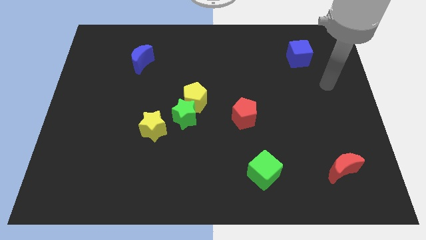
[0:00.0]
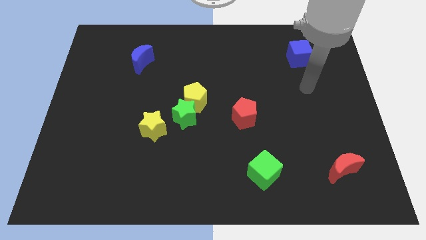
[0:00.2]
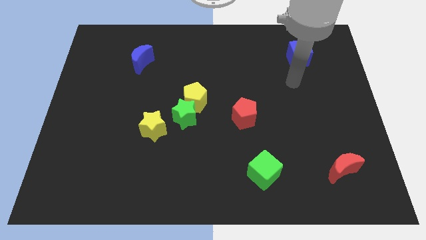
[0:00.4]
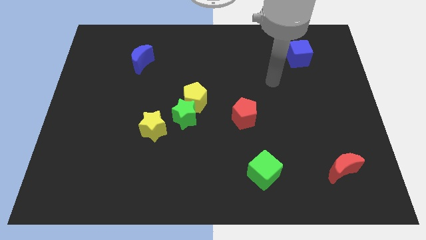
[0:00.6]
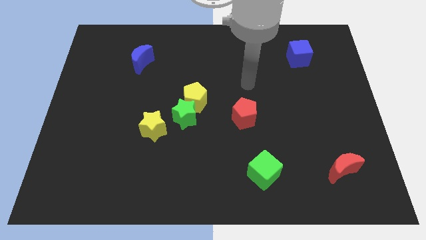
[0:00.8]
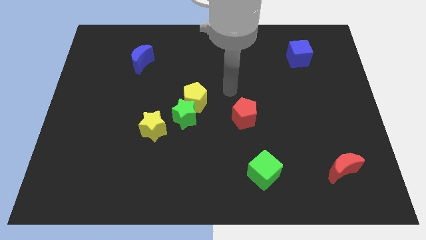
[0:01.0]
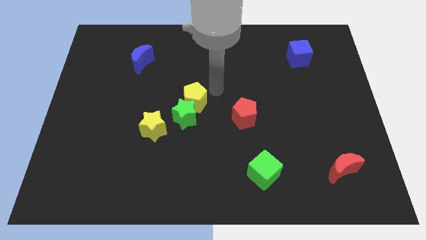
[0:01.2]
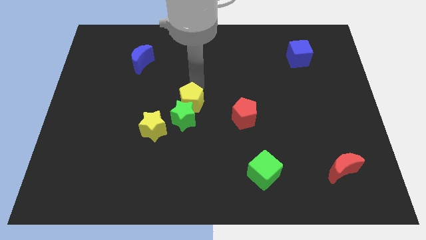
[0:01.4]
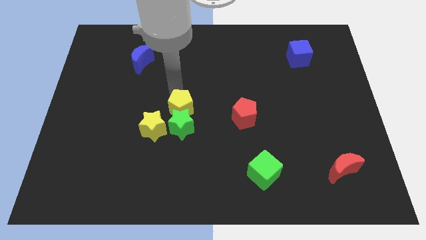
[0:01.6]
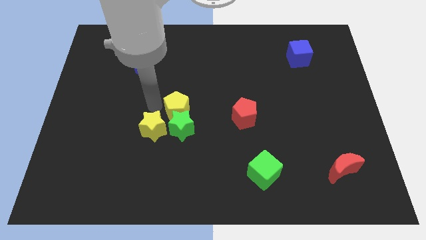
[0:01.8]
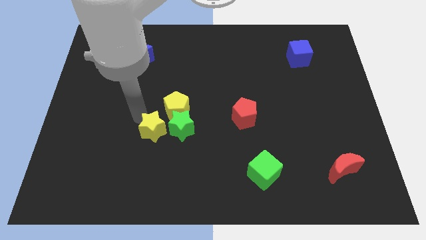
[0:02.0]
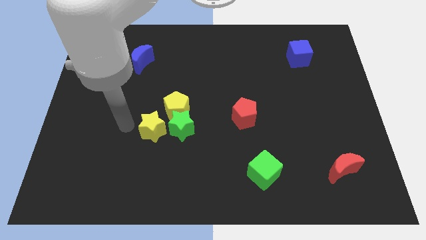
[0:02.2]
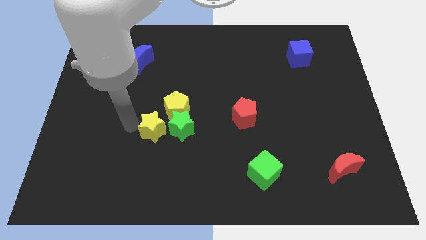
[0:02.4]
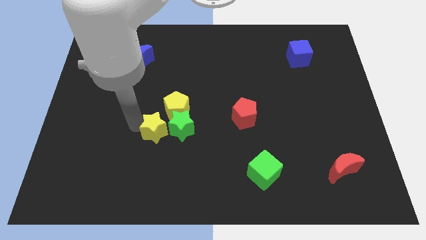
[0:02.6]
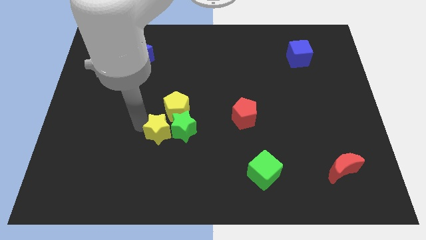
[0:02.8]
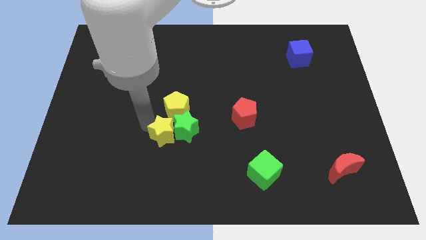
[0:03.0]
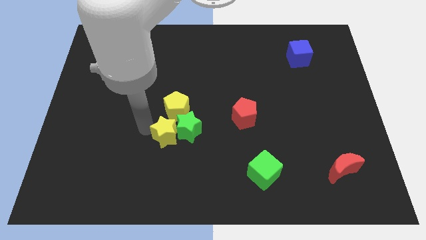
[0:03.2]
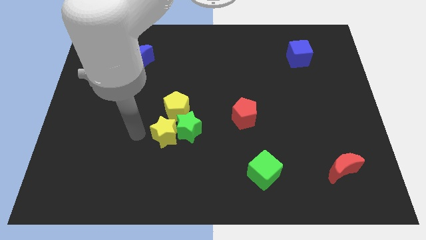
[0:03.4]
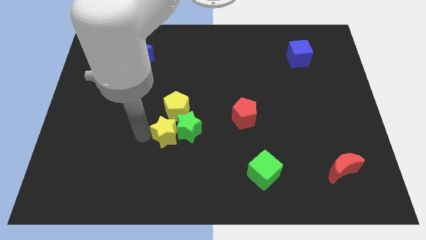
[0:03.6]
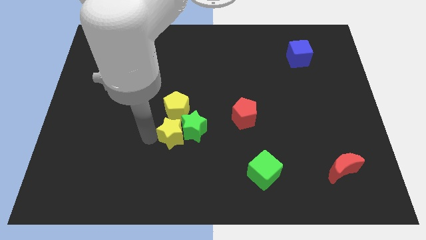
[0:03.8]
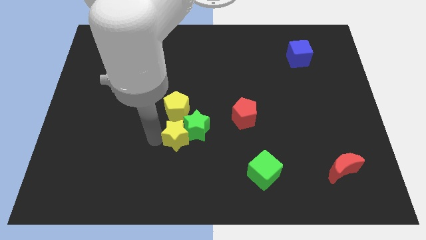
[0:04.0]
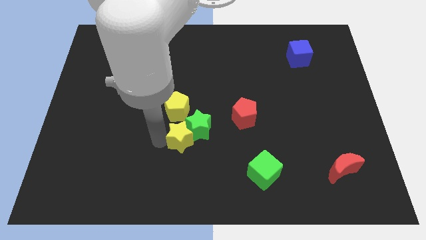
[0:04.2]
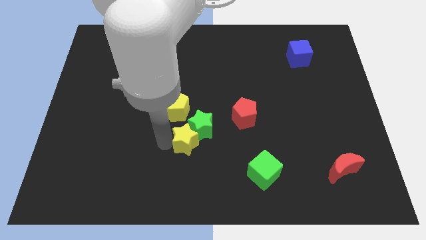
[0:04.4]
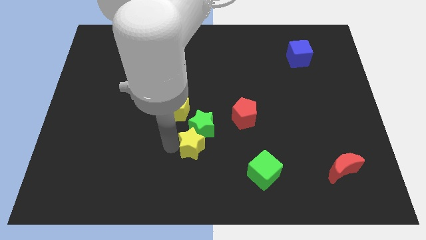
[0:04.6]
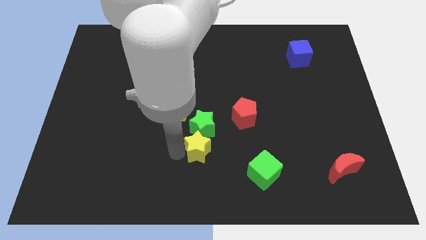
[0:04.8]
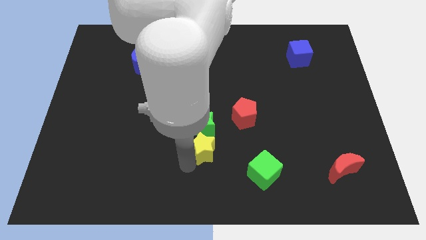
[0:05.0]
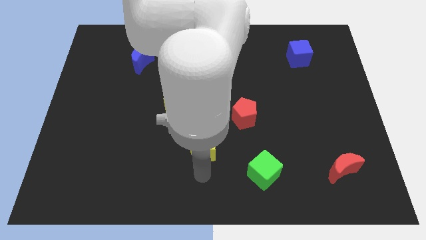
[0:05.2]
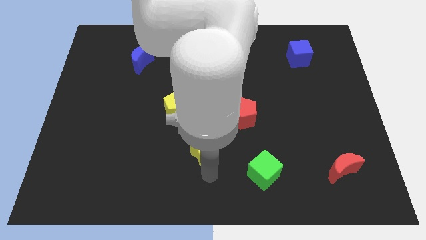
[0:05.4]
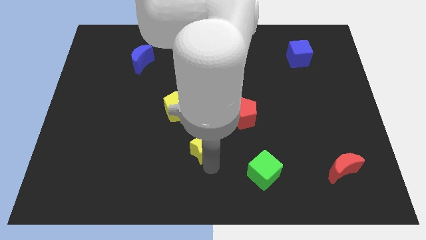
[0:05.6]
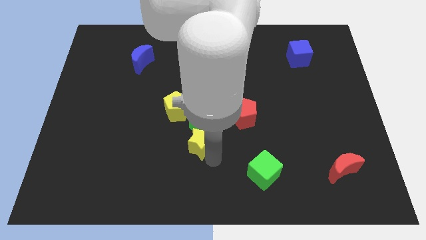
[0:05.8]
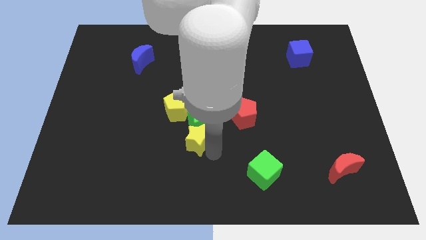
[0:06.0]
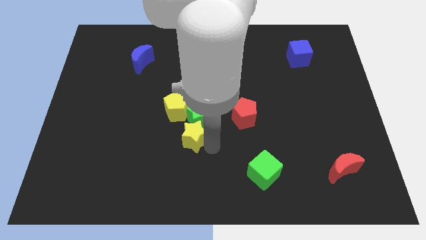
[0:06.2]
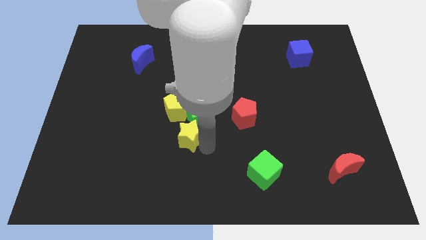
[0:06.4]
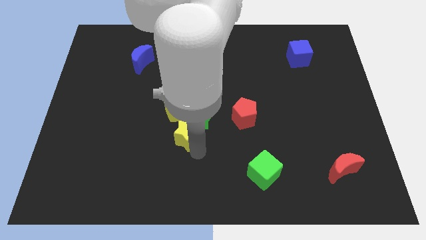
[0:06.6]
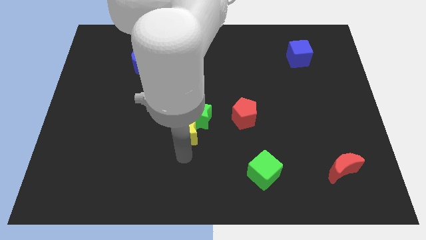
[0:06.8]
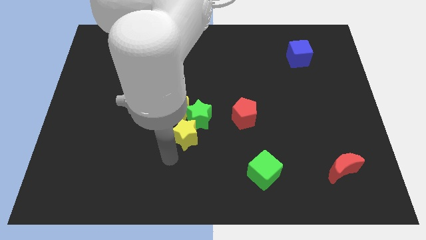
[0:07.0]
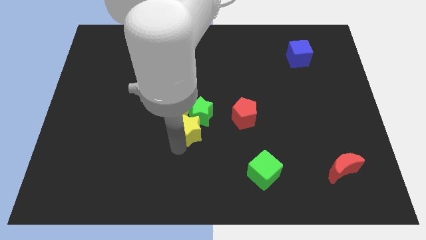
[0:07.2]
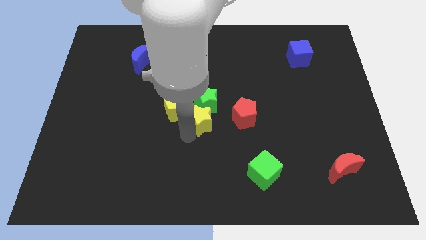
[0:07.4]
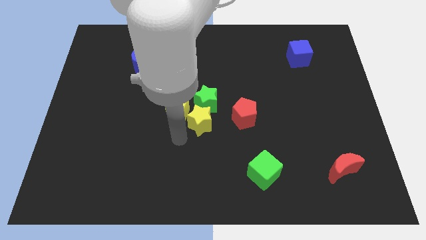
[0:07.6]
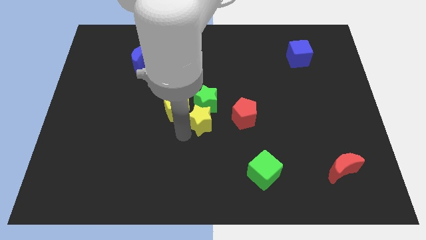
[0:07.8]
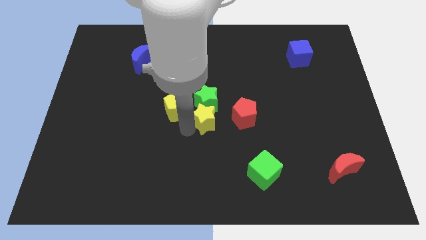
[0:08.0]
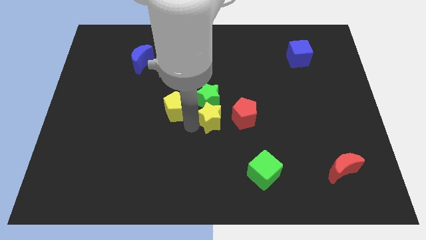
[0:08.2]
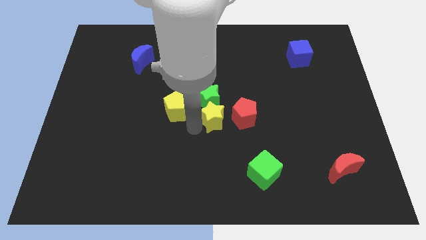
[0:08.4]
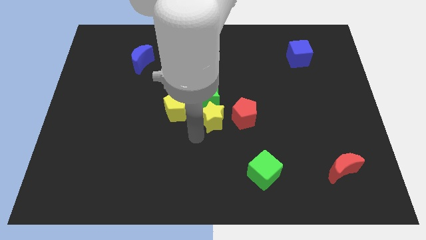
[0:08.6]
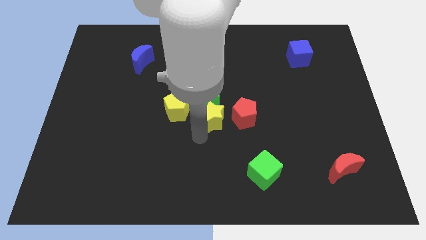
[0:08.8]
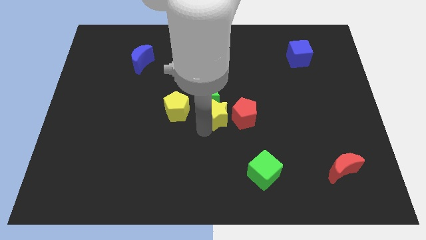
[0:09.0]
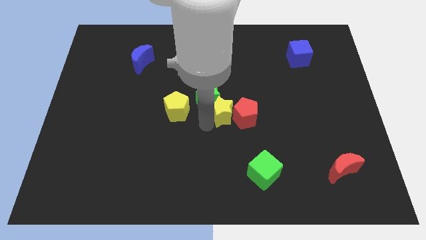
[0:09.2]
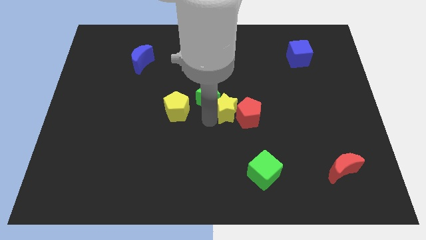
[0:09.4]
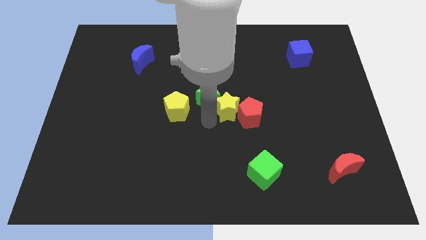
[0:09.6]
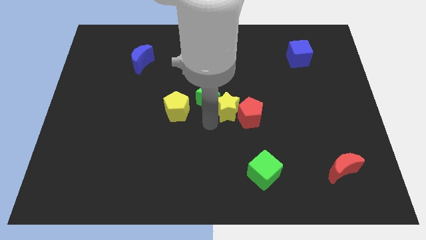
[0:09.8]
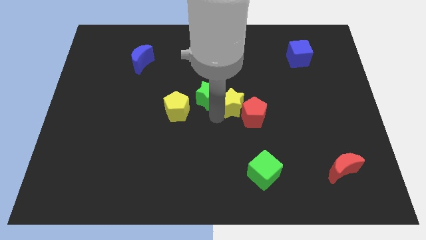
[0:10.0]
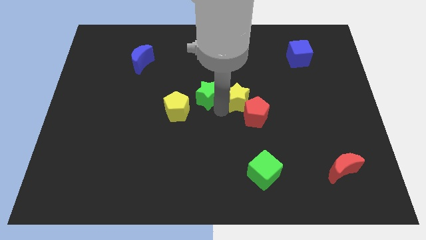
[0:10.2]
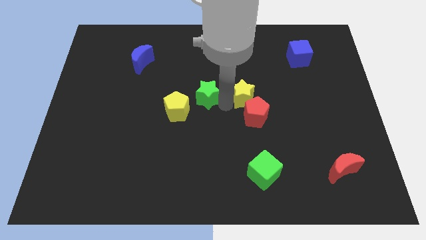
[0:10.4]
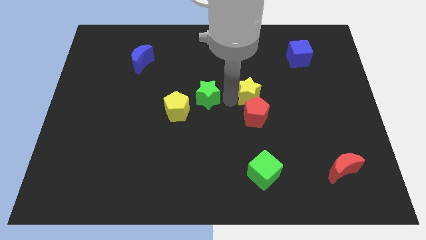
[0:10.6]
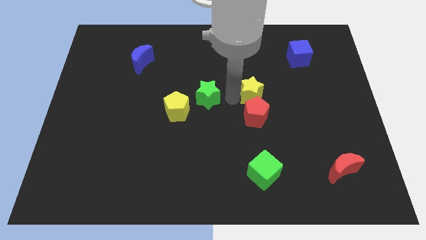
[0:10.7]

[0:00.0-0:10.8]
slide the yellow star diagonally up and to the right of the red pentagon

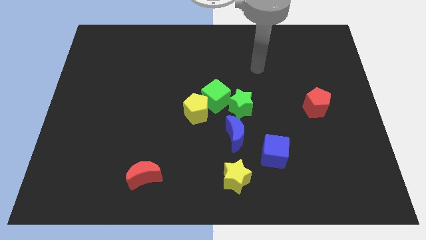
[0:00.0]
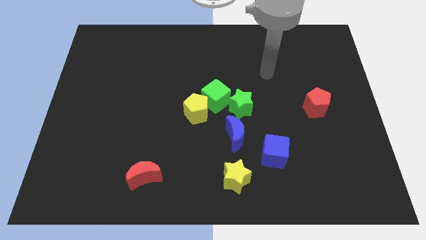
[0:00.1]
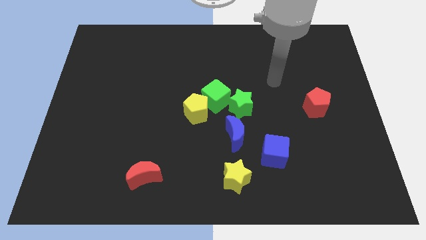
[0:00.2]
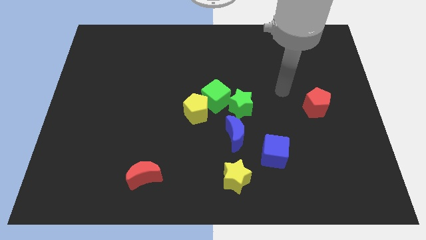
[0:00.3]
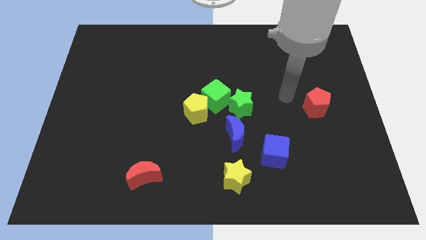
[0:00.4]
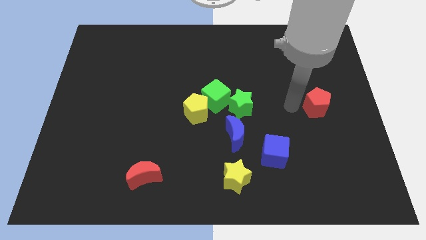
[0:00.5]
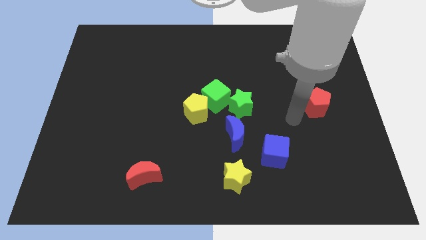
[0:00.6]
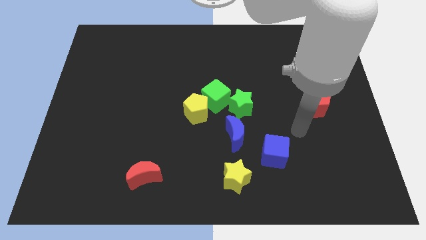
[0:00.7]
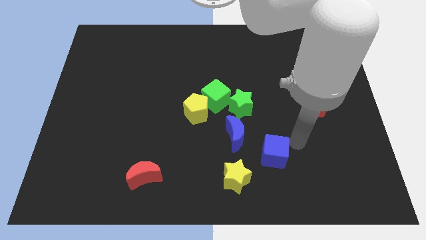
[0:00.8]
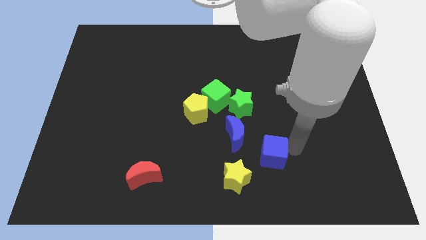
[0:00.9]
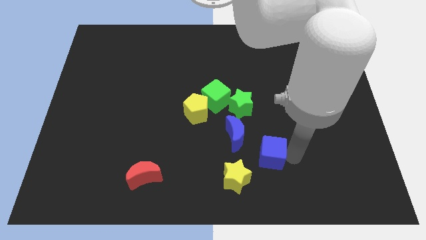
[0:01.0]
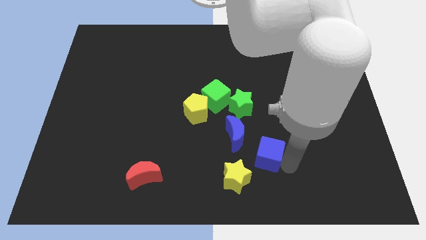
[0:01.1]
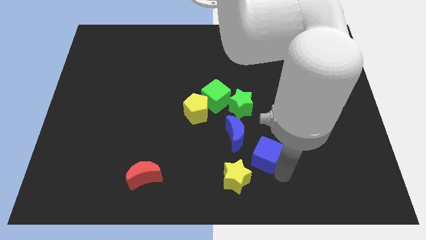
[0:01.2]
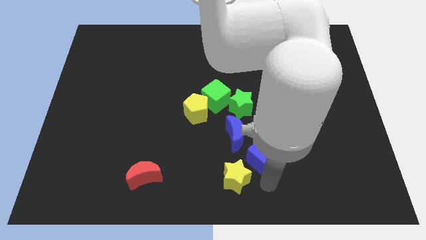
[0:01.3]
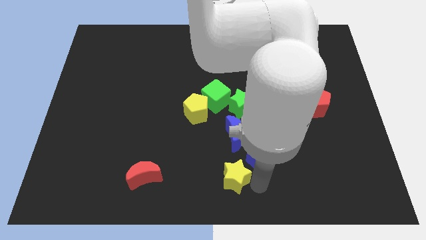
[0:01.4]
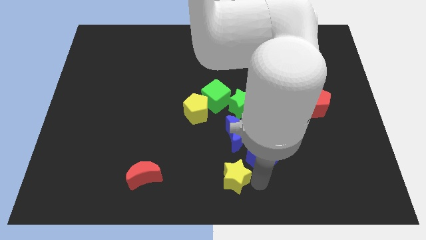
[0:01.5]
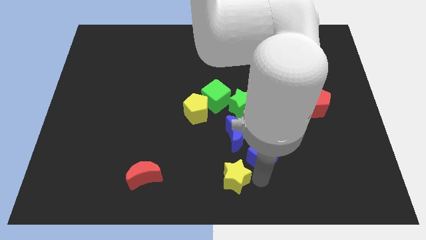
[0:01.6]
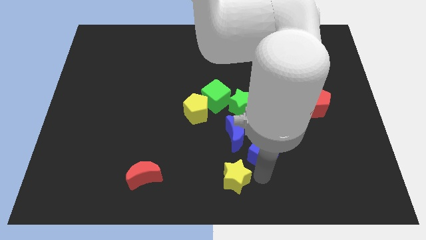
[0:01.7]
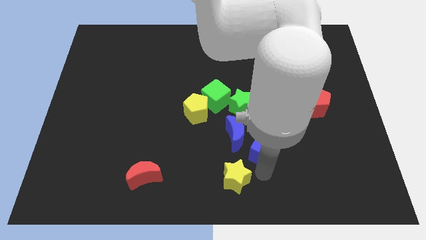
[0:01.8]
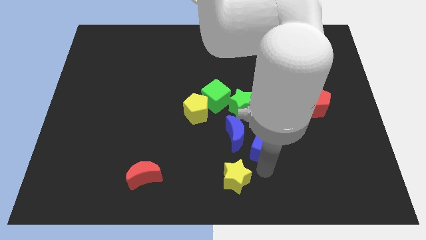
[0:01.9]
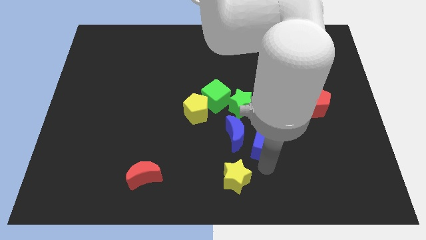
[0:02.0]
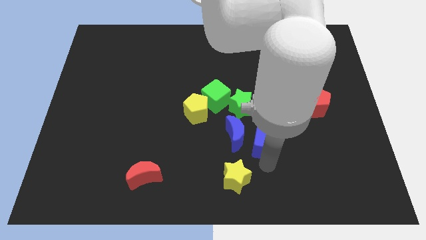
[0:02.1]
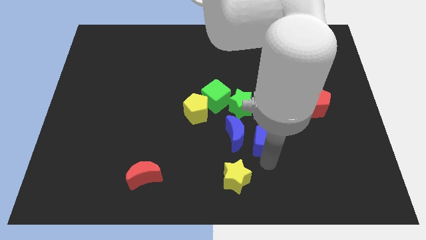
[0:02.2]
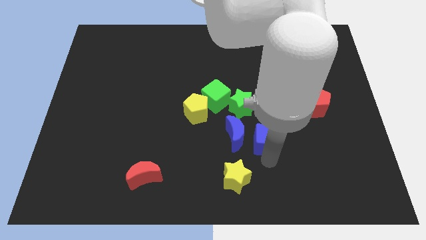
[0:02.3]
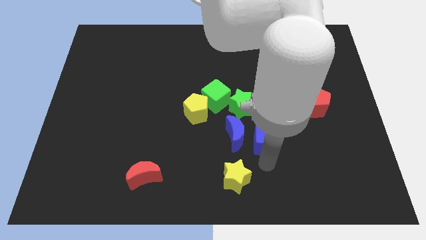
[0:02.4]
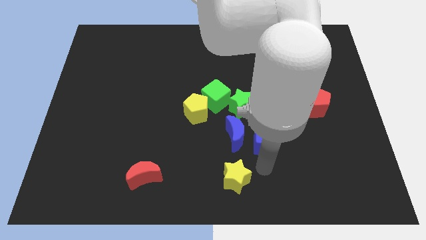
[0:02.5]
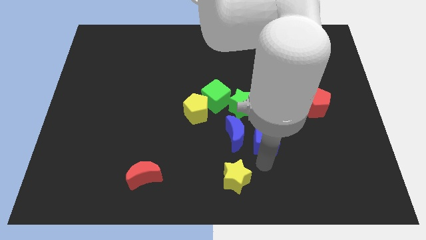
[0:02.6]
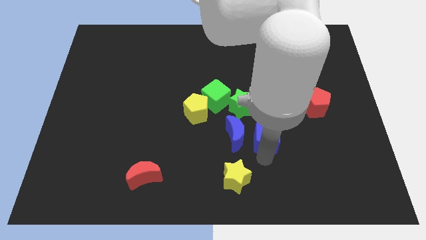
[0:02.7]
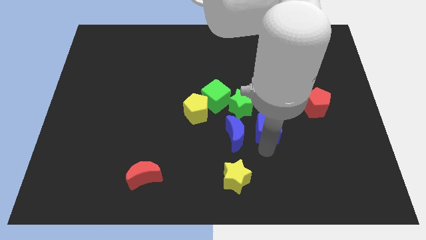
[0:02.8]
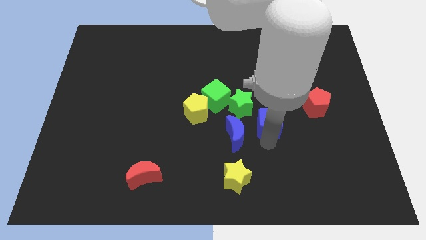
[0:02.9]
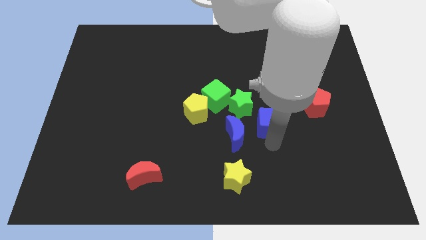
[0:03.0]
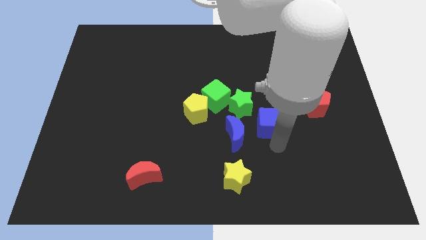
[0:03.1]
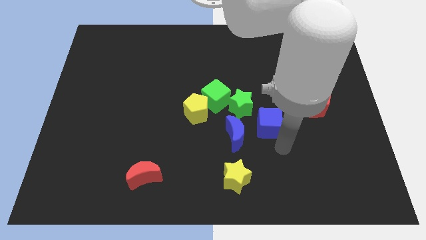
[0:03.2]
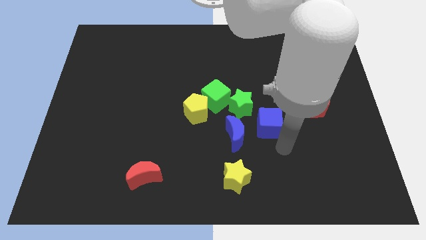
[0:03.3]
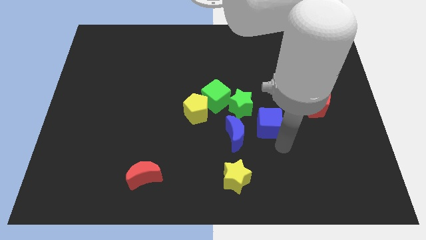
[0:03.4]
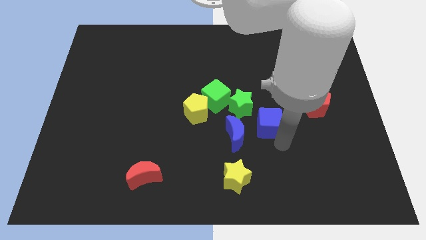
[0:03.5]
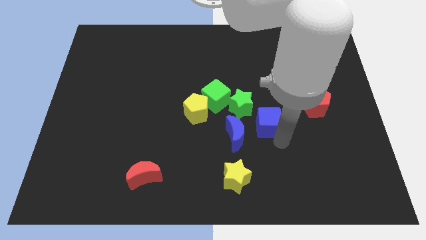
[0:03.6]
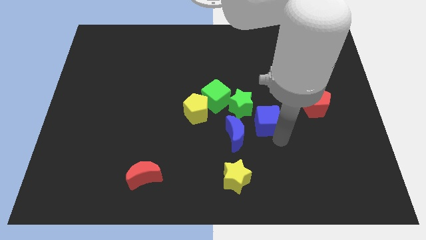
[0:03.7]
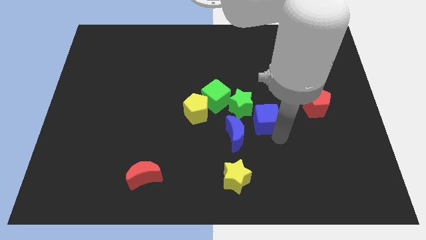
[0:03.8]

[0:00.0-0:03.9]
move the blue cube right of the yellow pentagon
